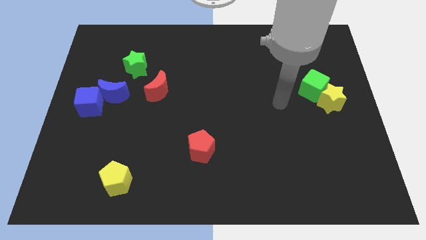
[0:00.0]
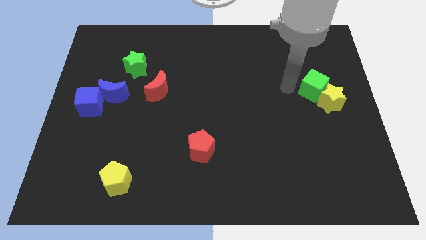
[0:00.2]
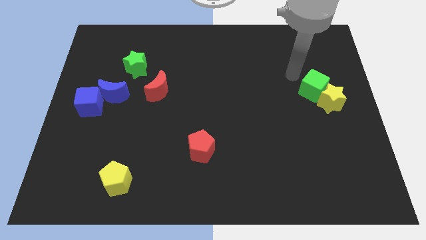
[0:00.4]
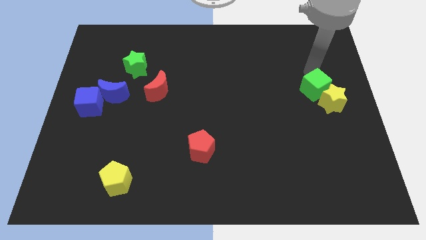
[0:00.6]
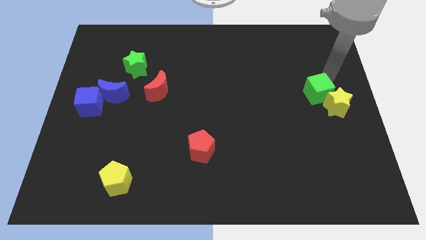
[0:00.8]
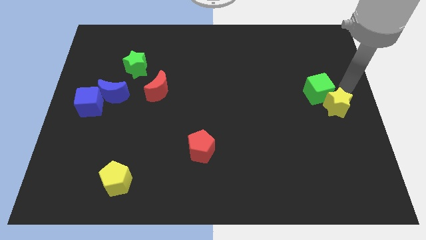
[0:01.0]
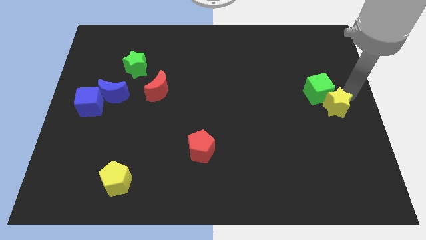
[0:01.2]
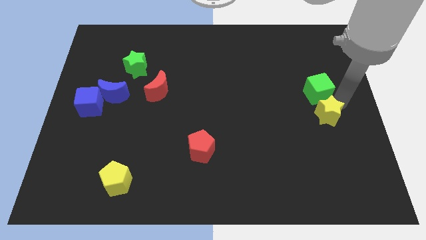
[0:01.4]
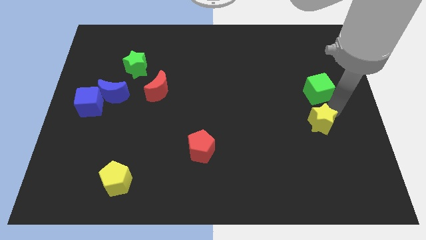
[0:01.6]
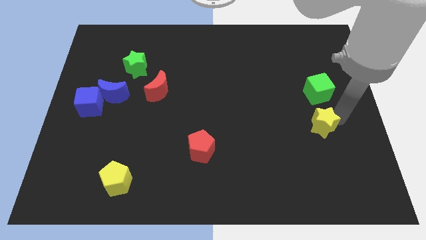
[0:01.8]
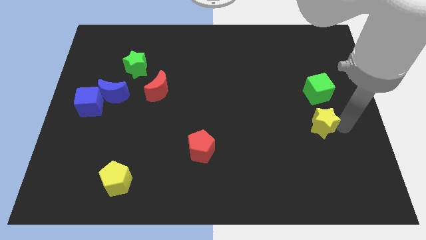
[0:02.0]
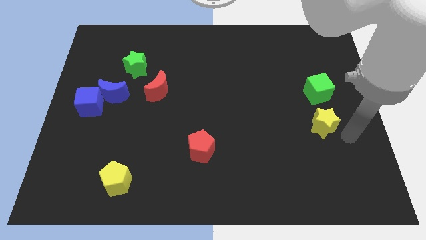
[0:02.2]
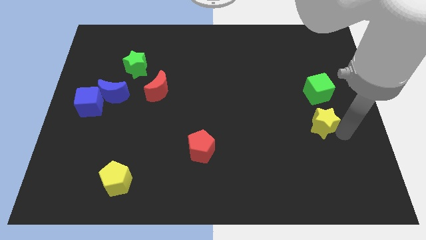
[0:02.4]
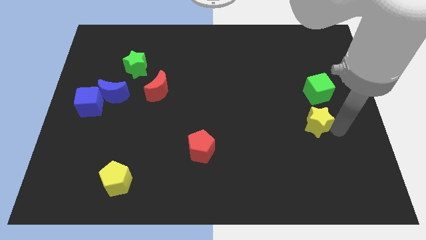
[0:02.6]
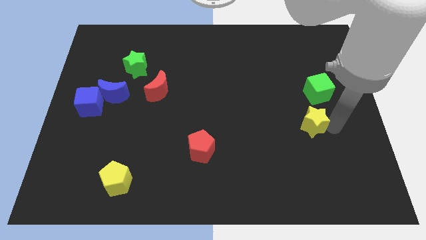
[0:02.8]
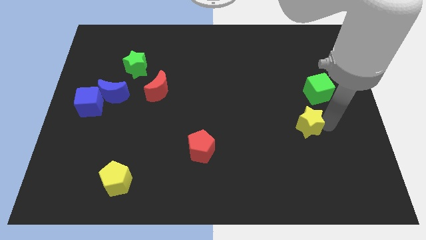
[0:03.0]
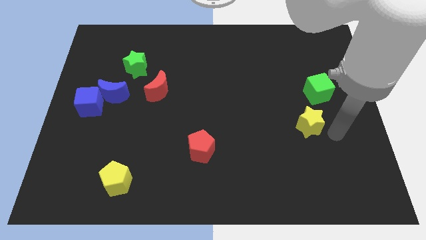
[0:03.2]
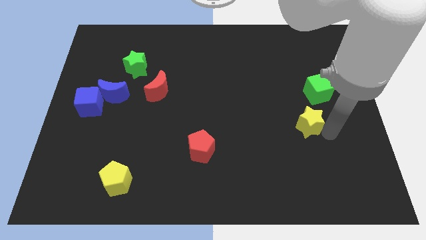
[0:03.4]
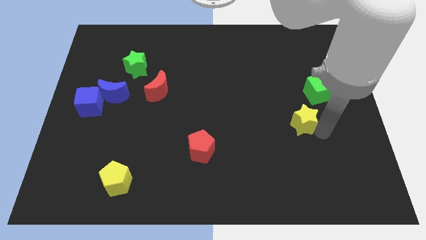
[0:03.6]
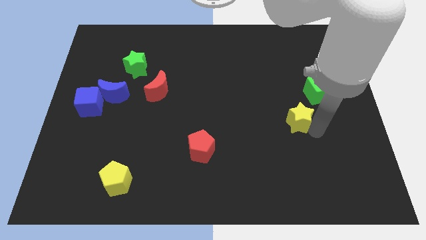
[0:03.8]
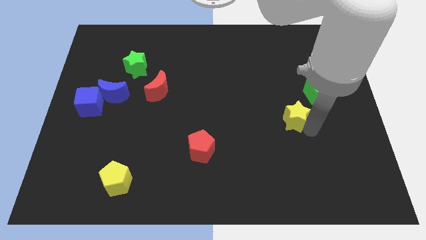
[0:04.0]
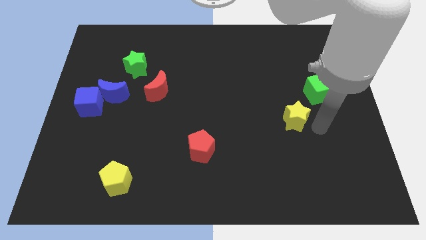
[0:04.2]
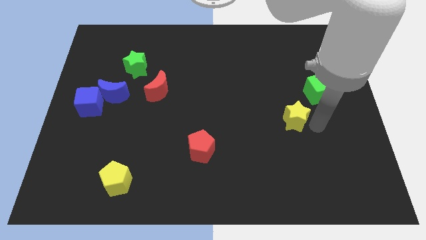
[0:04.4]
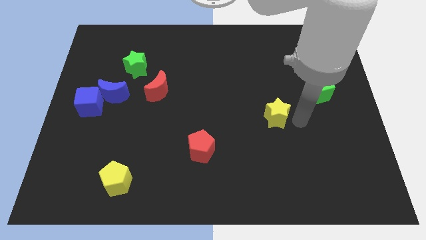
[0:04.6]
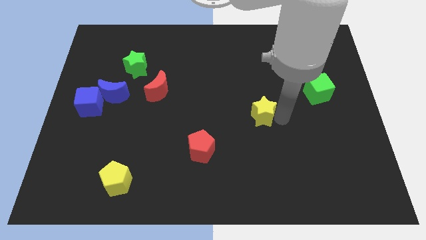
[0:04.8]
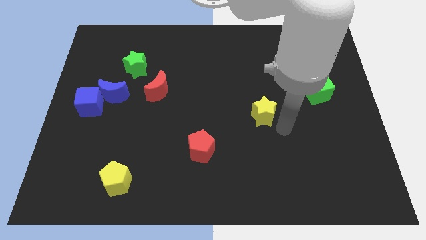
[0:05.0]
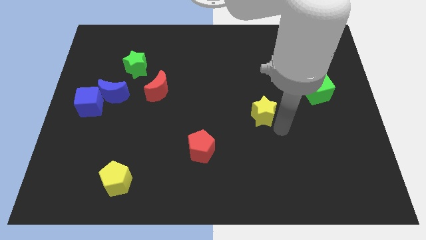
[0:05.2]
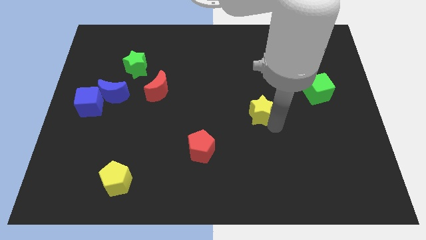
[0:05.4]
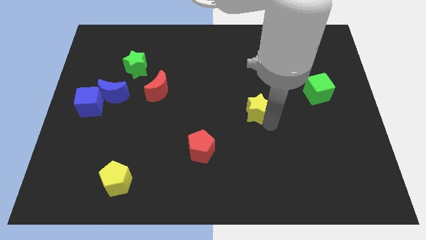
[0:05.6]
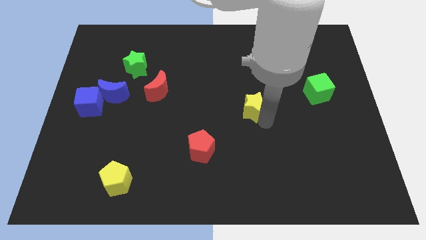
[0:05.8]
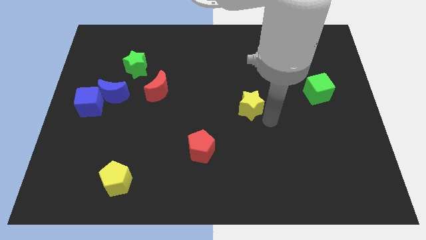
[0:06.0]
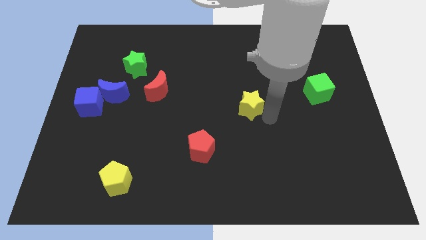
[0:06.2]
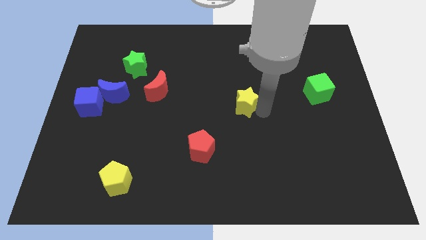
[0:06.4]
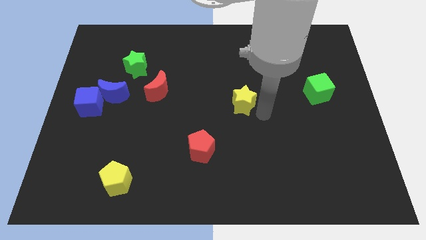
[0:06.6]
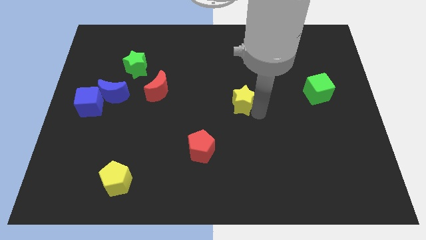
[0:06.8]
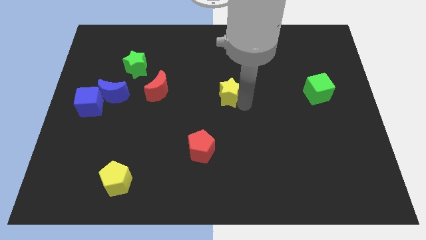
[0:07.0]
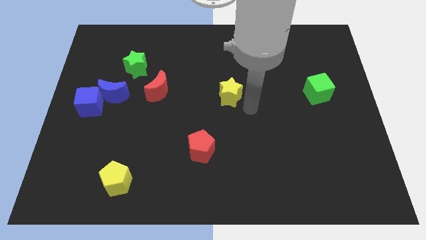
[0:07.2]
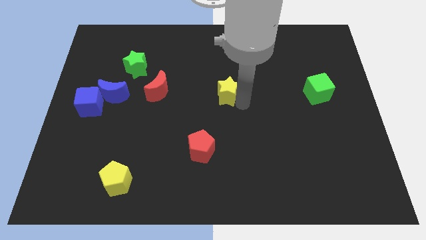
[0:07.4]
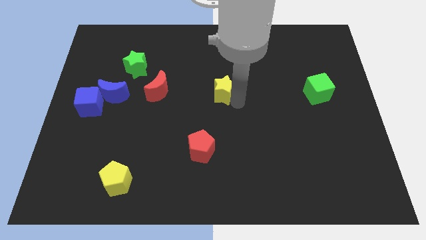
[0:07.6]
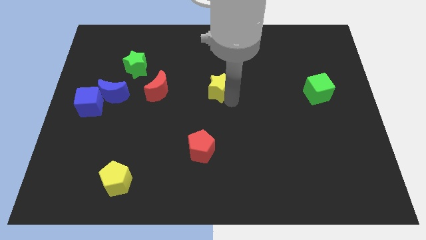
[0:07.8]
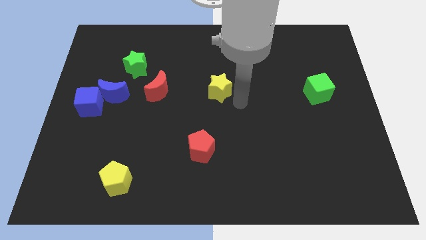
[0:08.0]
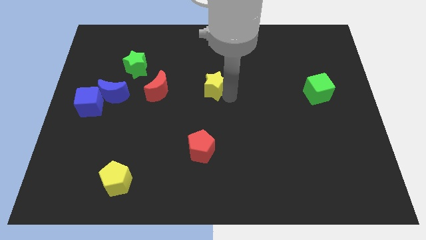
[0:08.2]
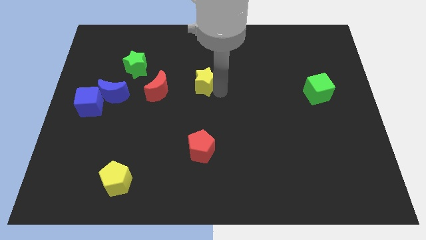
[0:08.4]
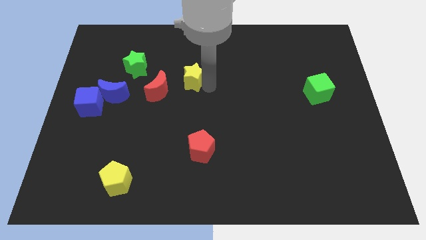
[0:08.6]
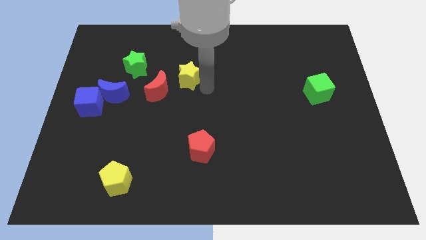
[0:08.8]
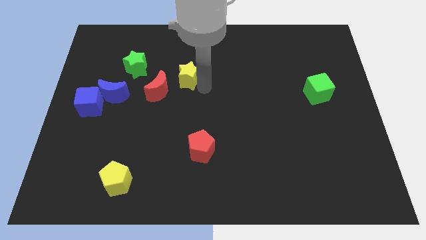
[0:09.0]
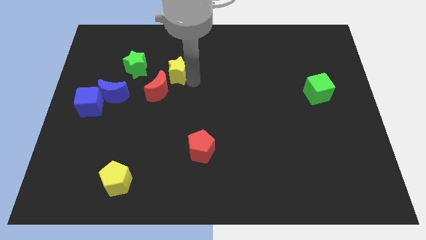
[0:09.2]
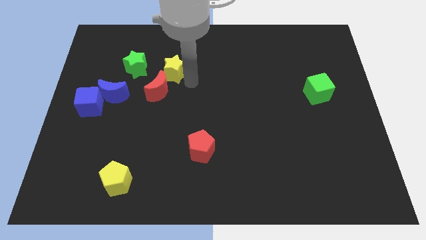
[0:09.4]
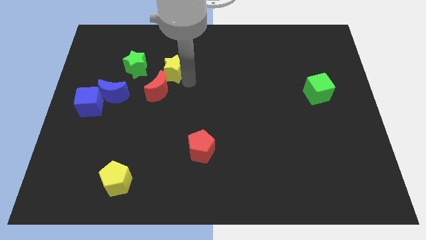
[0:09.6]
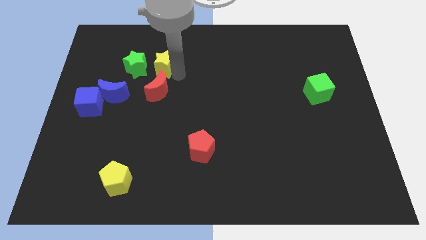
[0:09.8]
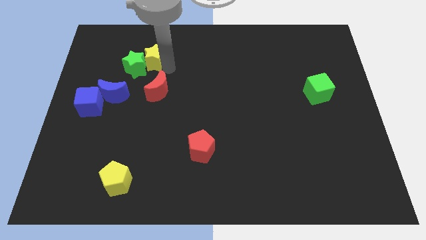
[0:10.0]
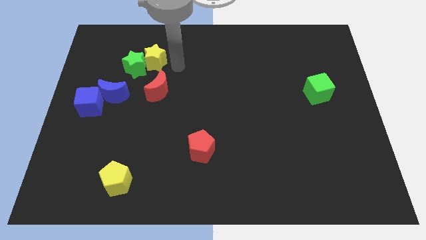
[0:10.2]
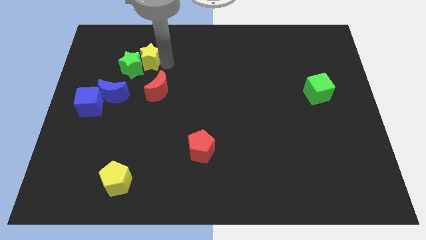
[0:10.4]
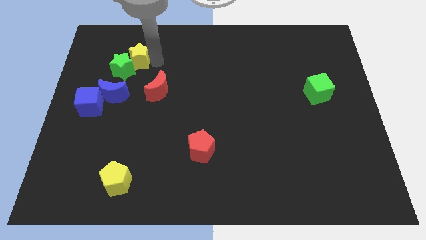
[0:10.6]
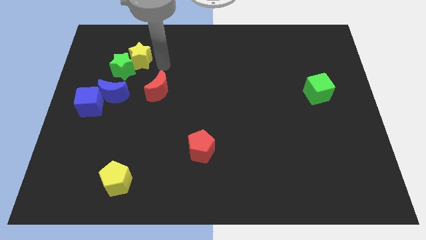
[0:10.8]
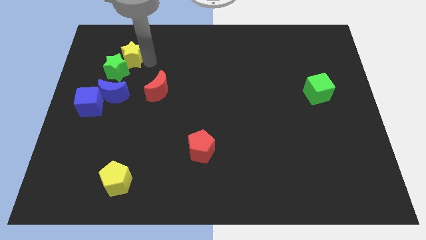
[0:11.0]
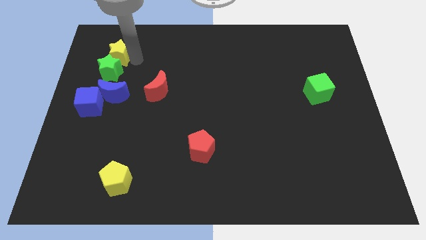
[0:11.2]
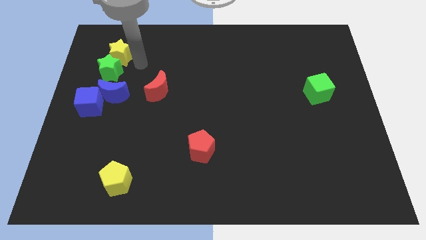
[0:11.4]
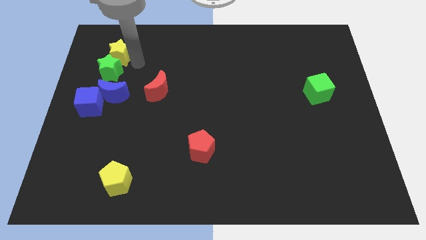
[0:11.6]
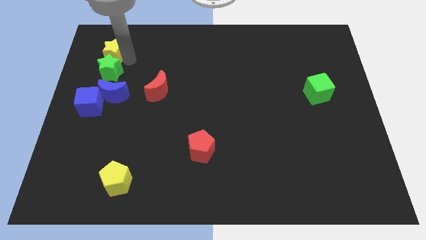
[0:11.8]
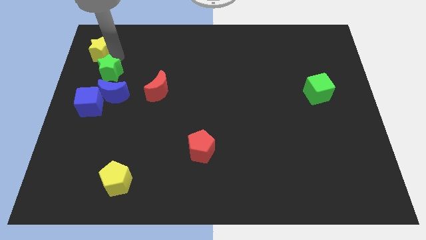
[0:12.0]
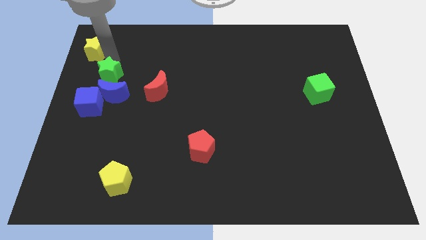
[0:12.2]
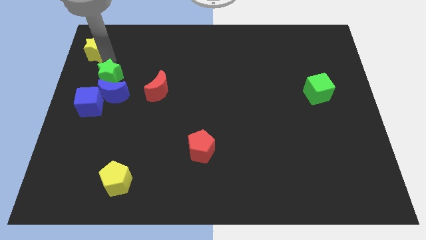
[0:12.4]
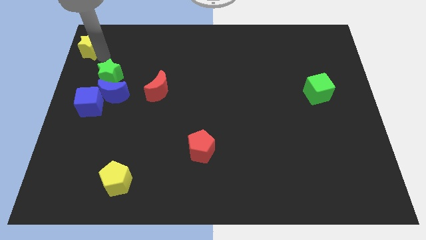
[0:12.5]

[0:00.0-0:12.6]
move the yellow star to the top left corner

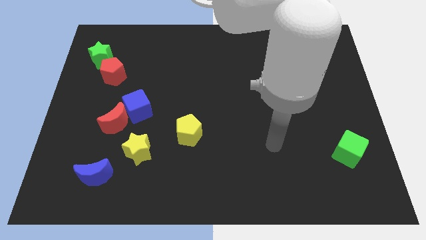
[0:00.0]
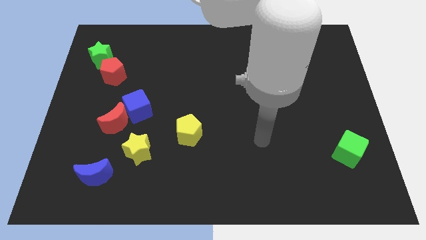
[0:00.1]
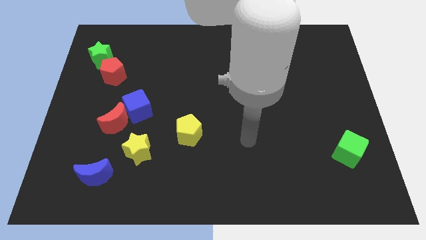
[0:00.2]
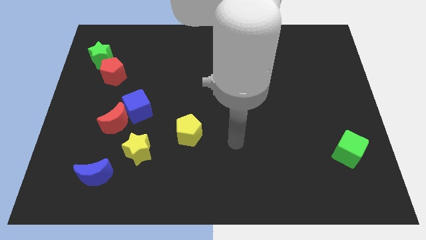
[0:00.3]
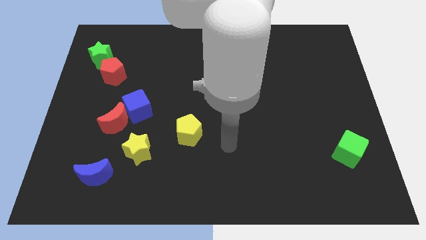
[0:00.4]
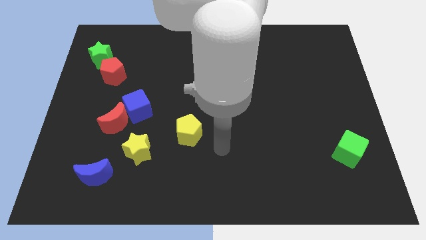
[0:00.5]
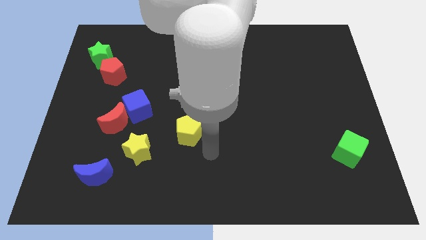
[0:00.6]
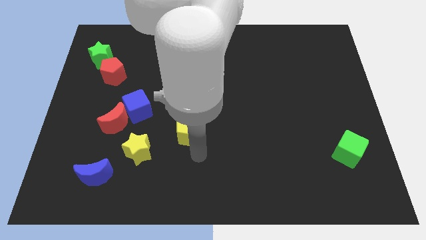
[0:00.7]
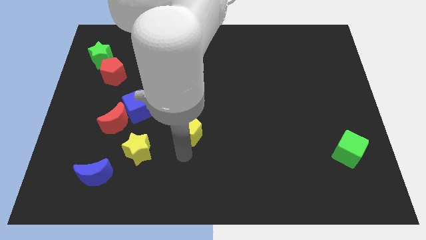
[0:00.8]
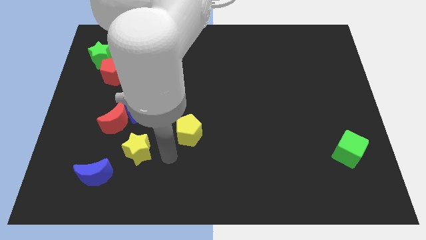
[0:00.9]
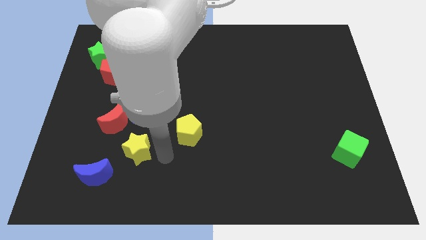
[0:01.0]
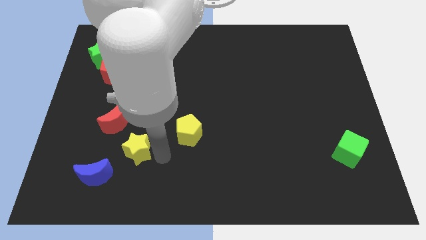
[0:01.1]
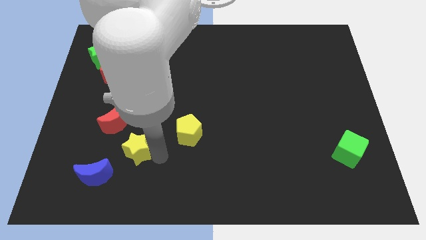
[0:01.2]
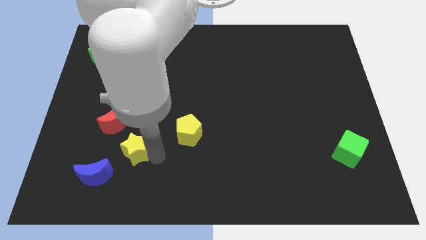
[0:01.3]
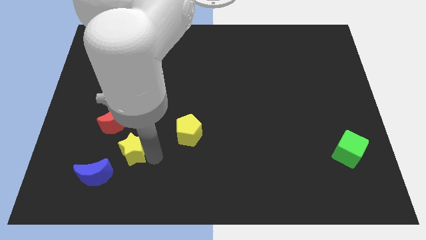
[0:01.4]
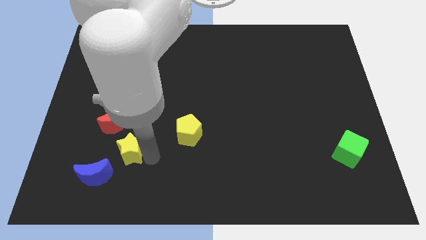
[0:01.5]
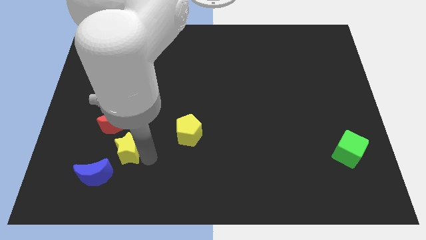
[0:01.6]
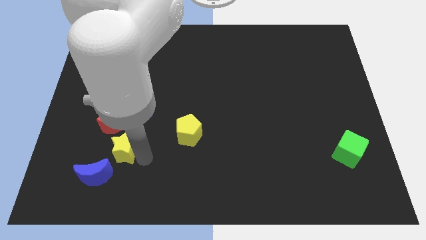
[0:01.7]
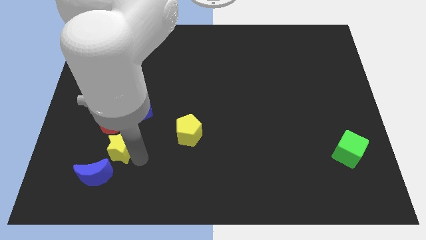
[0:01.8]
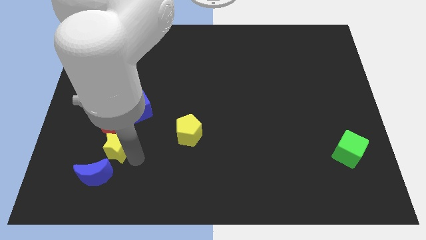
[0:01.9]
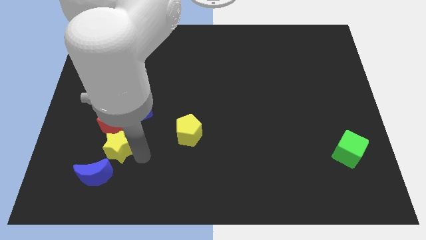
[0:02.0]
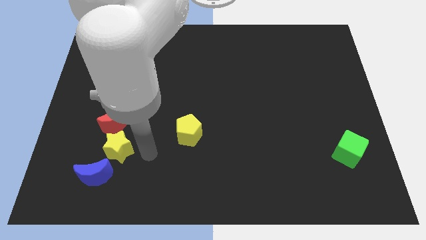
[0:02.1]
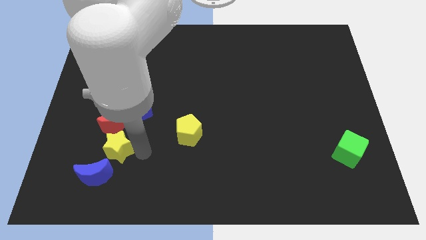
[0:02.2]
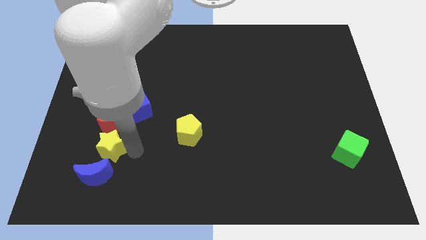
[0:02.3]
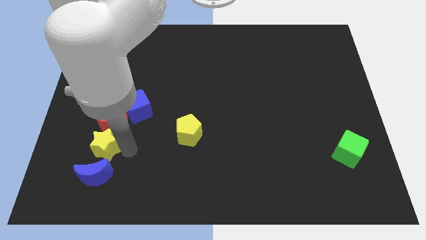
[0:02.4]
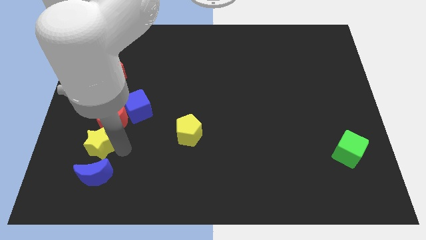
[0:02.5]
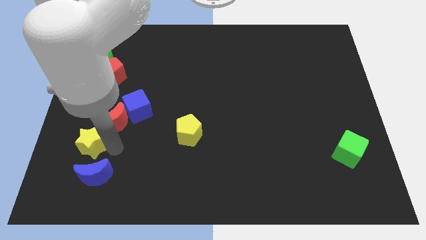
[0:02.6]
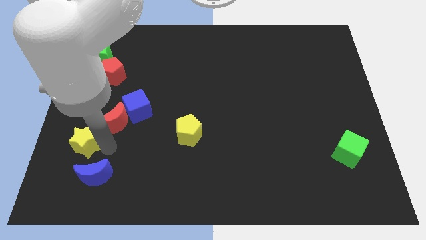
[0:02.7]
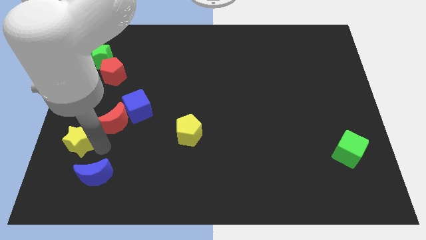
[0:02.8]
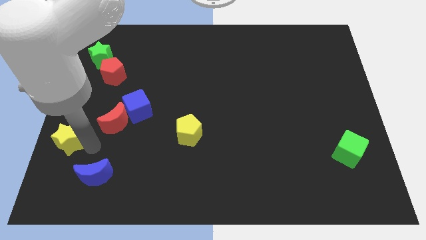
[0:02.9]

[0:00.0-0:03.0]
push the yellow star to the left side of the board
